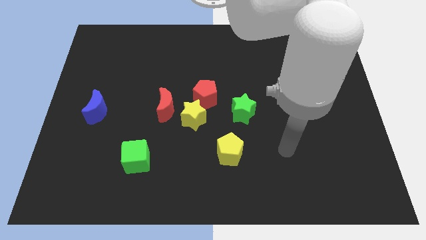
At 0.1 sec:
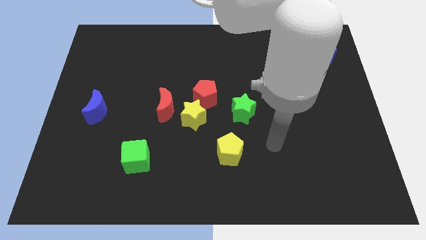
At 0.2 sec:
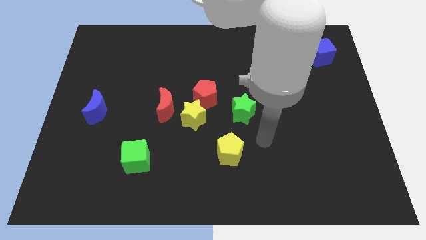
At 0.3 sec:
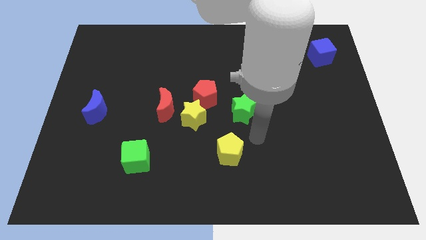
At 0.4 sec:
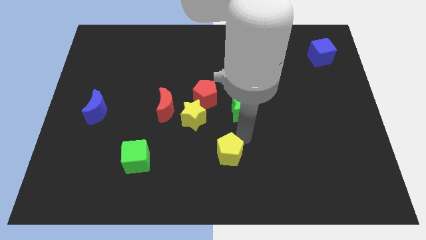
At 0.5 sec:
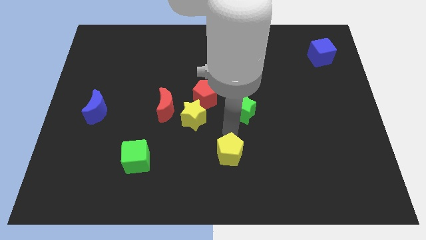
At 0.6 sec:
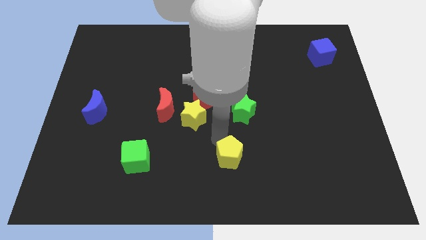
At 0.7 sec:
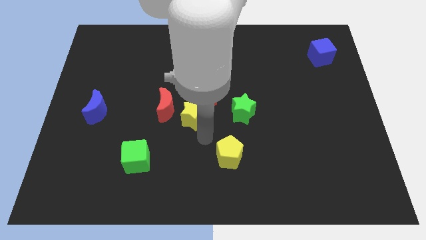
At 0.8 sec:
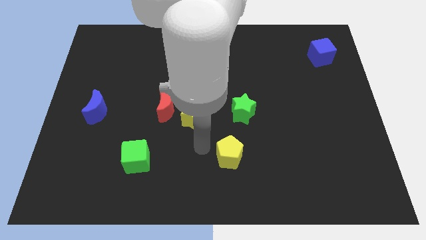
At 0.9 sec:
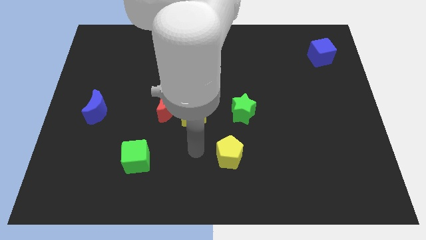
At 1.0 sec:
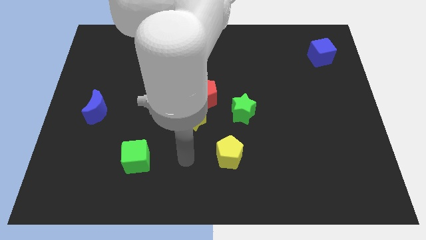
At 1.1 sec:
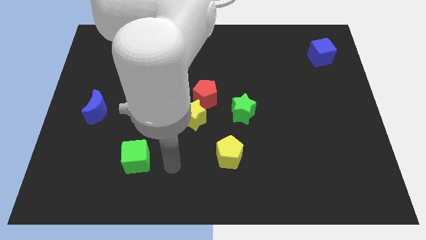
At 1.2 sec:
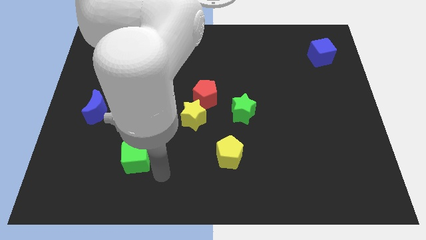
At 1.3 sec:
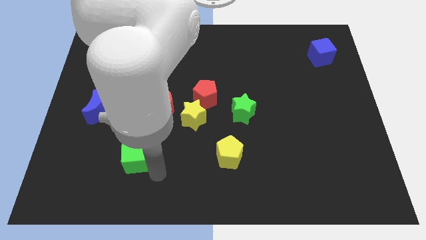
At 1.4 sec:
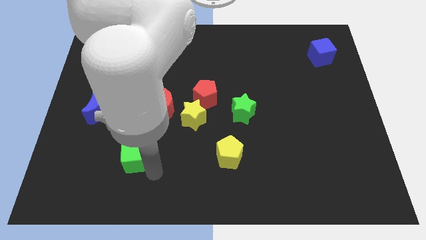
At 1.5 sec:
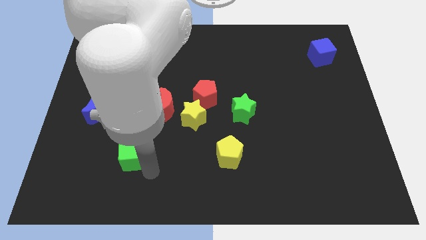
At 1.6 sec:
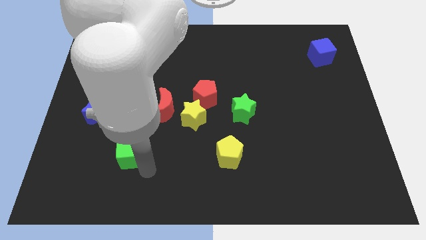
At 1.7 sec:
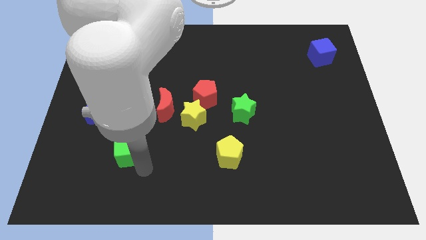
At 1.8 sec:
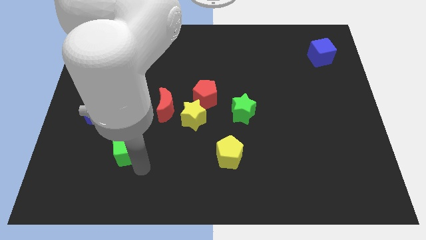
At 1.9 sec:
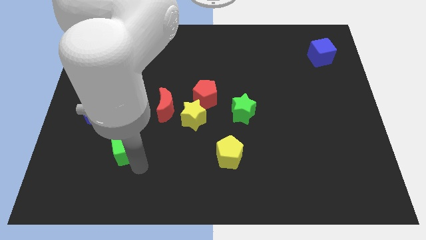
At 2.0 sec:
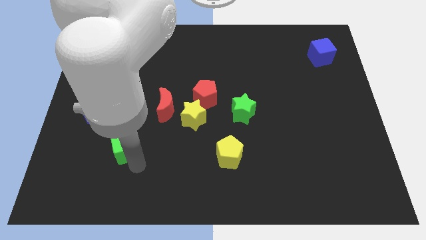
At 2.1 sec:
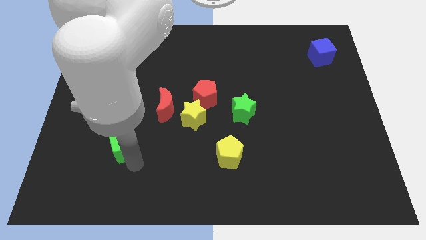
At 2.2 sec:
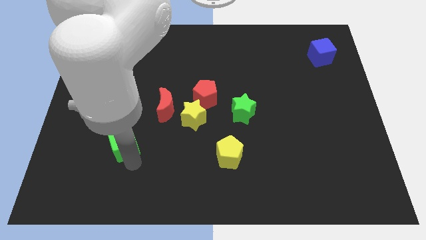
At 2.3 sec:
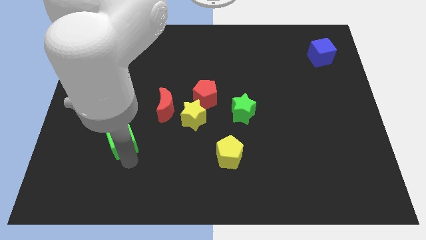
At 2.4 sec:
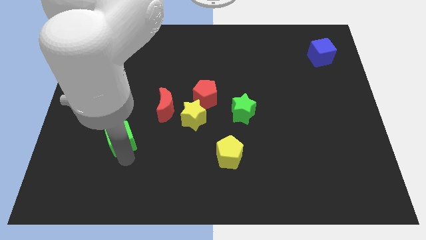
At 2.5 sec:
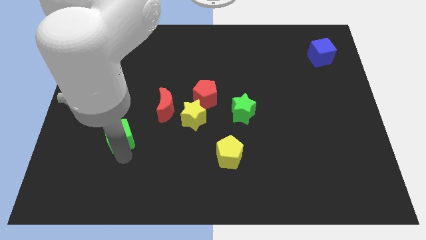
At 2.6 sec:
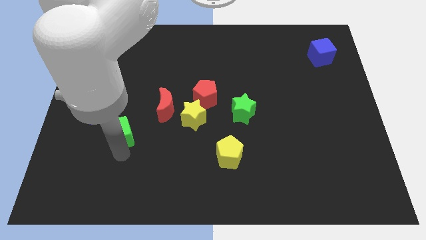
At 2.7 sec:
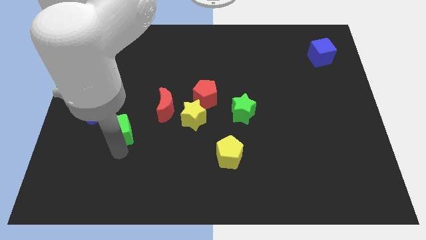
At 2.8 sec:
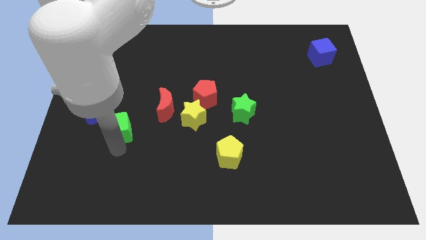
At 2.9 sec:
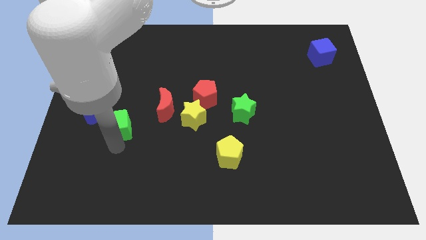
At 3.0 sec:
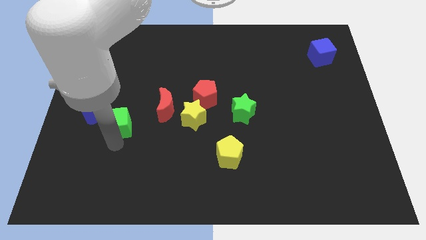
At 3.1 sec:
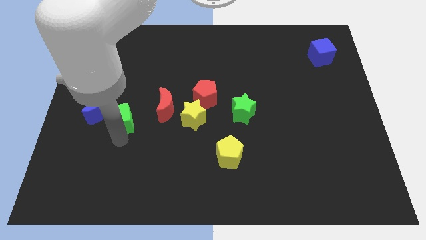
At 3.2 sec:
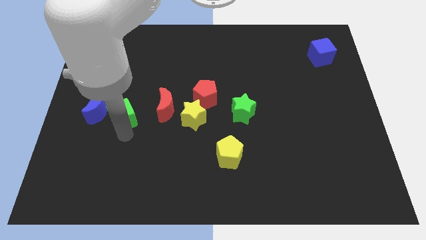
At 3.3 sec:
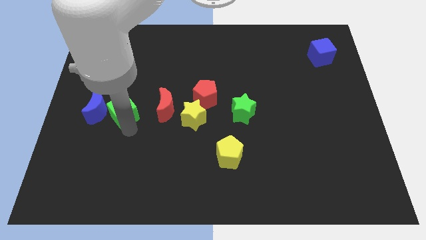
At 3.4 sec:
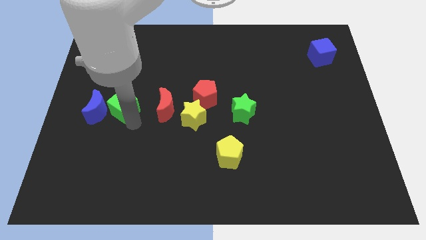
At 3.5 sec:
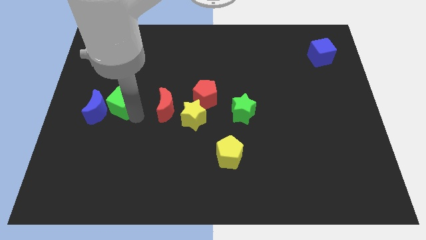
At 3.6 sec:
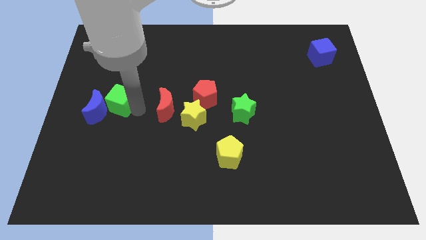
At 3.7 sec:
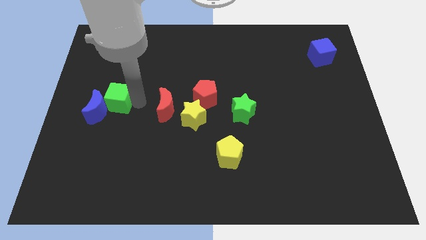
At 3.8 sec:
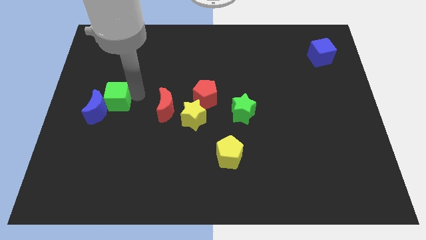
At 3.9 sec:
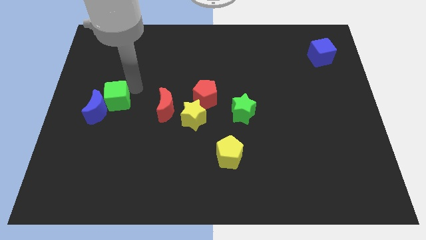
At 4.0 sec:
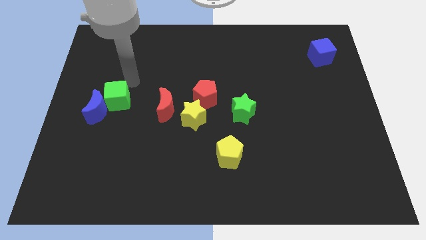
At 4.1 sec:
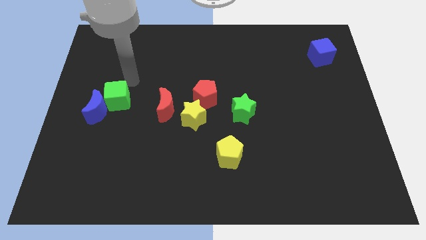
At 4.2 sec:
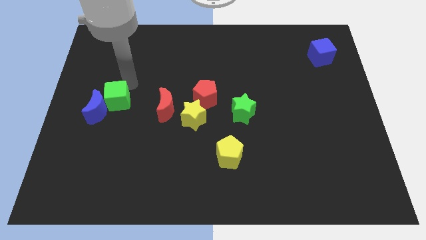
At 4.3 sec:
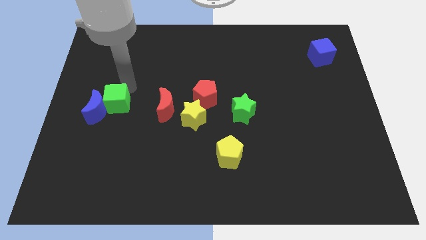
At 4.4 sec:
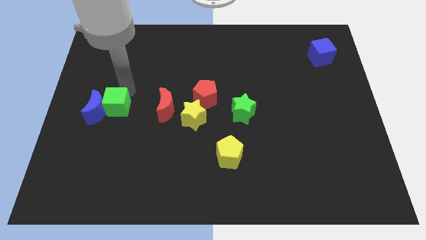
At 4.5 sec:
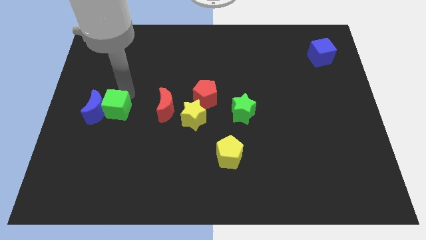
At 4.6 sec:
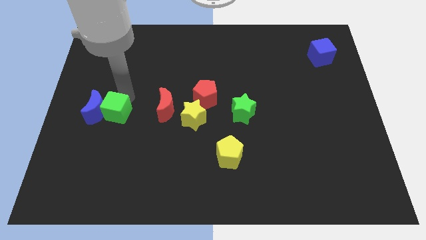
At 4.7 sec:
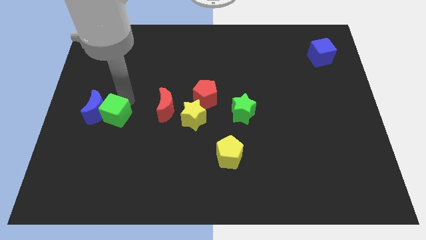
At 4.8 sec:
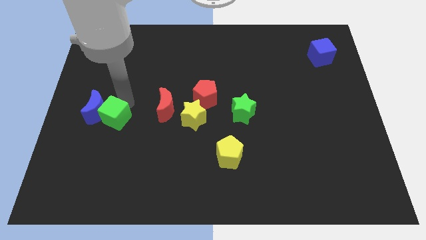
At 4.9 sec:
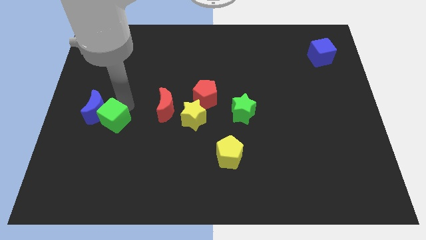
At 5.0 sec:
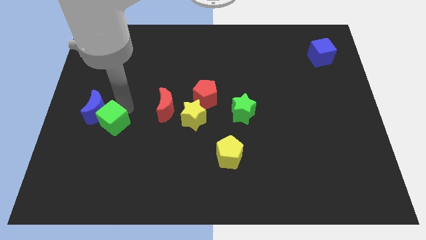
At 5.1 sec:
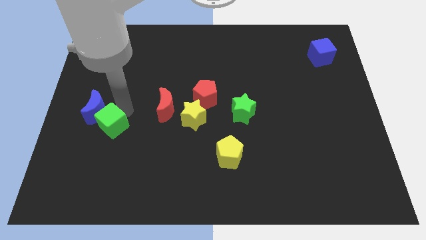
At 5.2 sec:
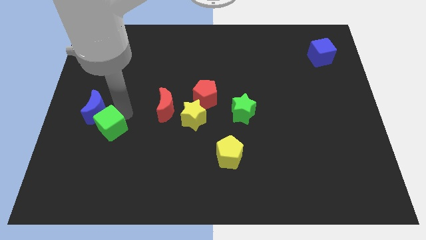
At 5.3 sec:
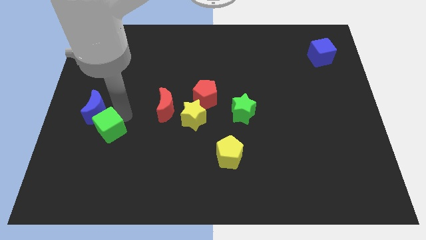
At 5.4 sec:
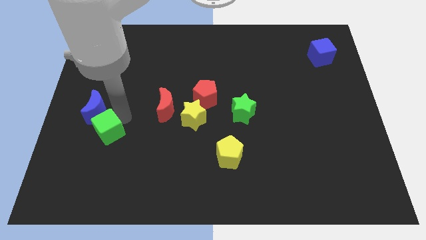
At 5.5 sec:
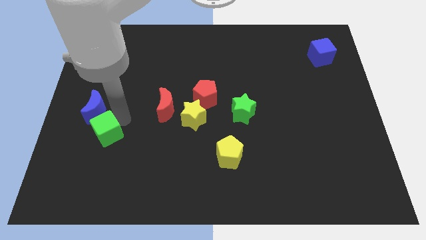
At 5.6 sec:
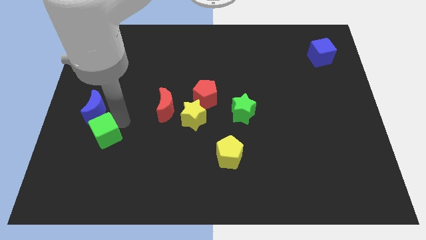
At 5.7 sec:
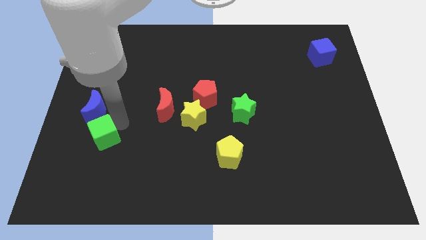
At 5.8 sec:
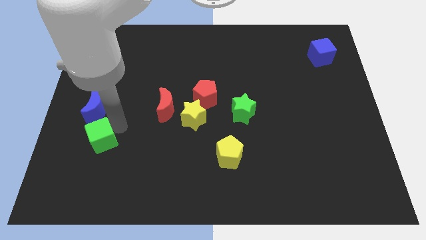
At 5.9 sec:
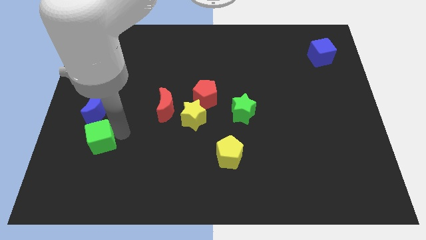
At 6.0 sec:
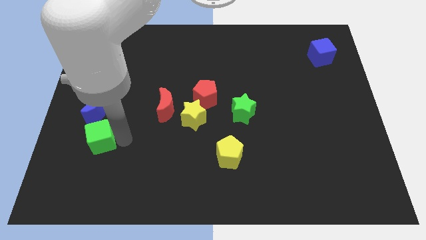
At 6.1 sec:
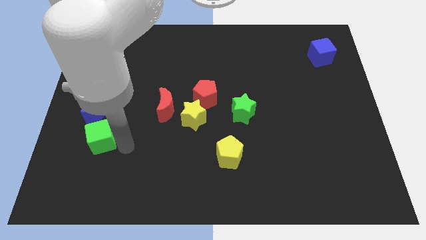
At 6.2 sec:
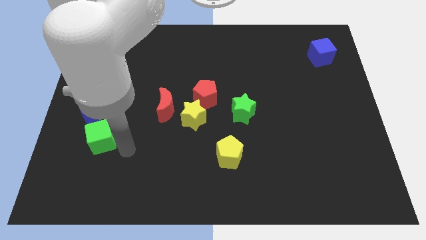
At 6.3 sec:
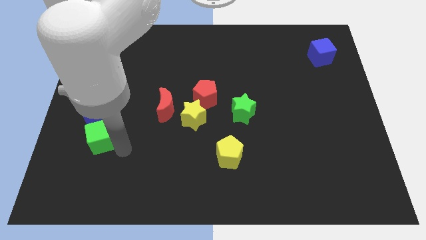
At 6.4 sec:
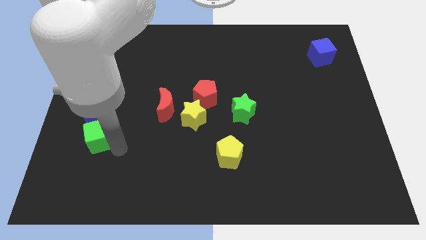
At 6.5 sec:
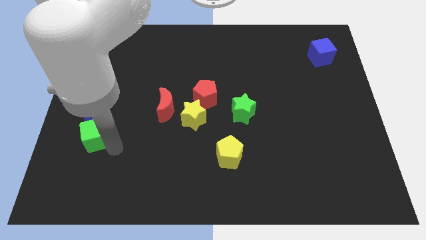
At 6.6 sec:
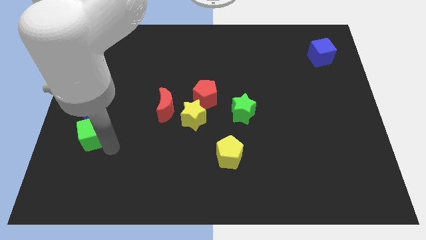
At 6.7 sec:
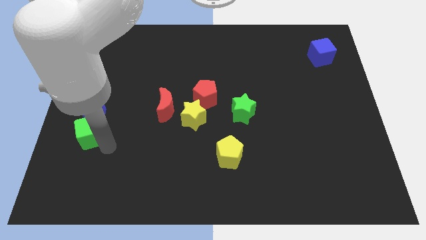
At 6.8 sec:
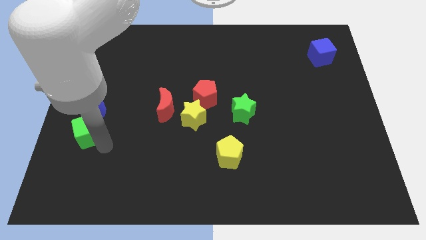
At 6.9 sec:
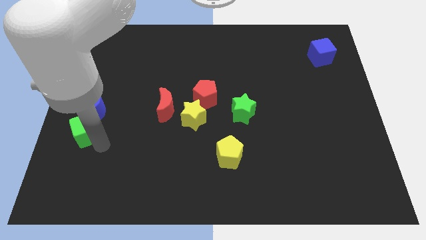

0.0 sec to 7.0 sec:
put the green cube to the left side of the board
